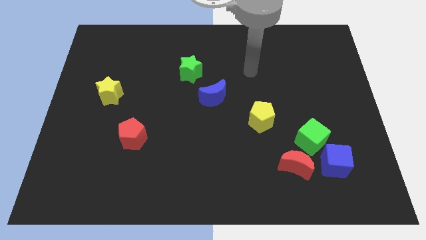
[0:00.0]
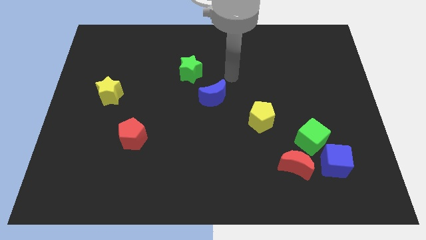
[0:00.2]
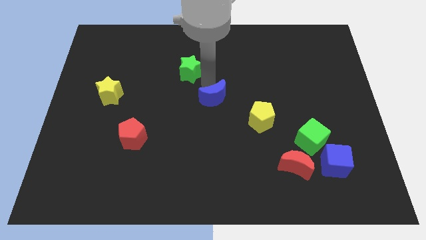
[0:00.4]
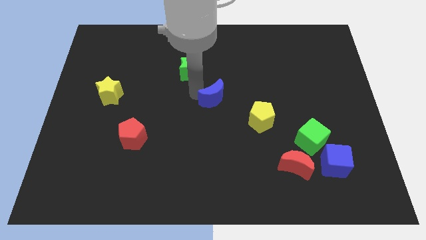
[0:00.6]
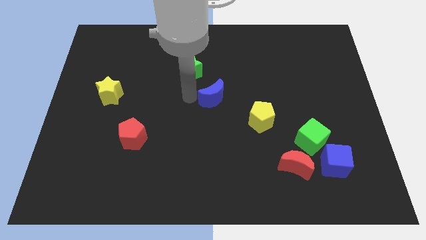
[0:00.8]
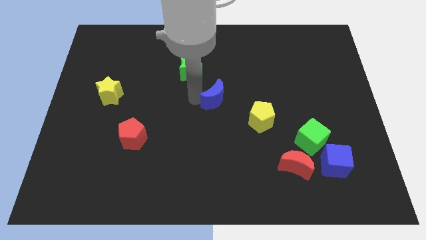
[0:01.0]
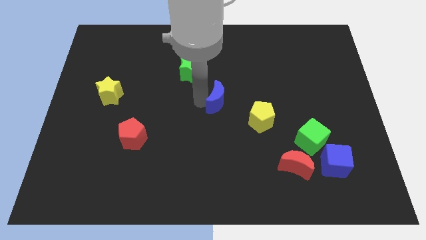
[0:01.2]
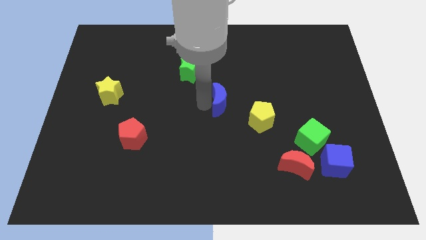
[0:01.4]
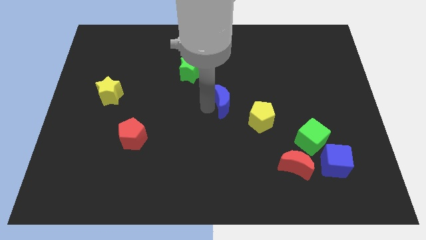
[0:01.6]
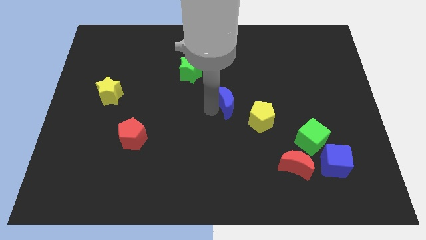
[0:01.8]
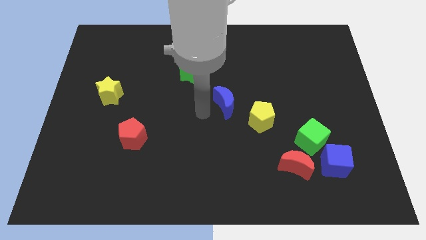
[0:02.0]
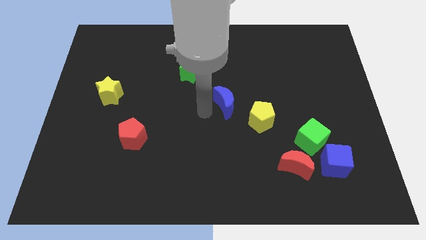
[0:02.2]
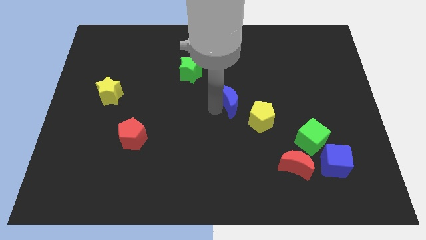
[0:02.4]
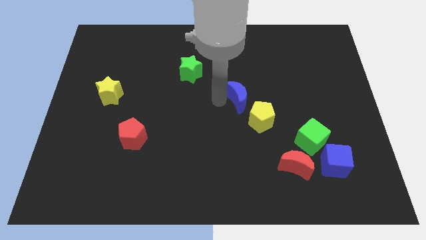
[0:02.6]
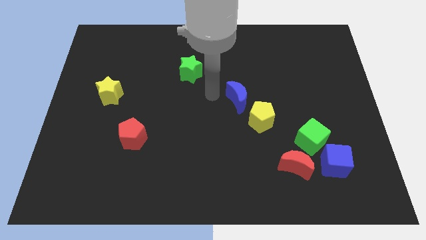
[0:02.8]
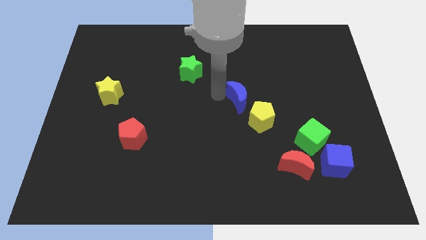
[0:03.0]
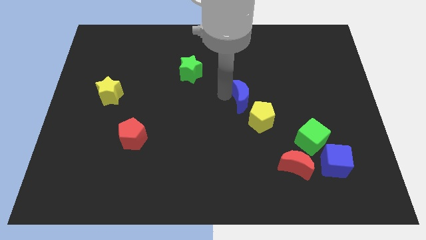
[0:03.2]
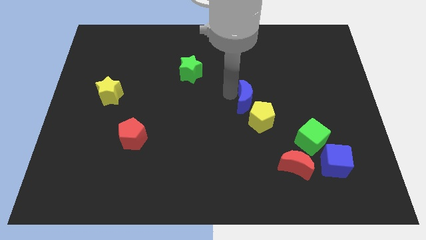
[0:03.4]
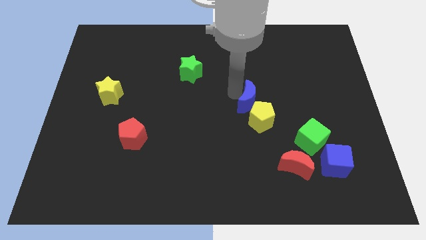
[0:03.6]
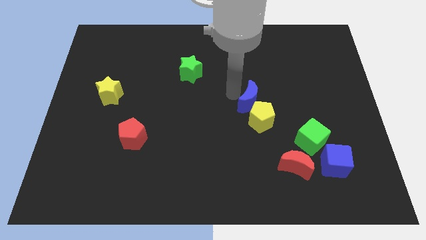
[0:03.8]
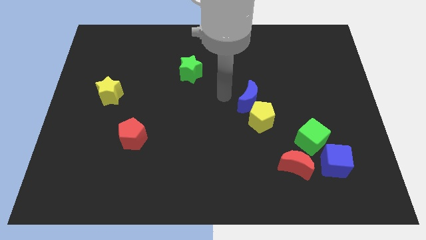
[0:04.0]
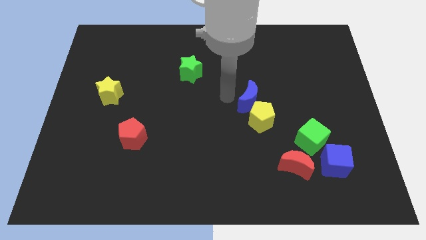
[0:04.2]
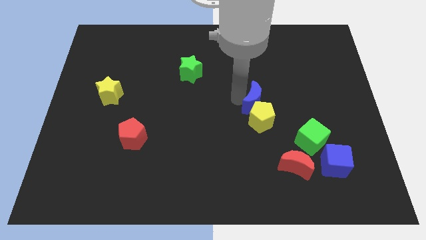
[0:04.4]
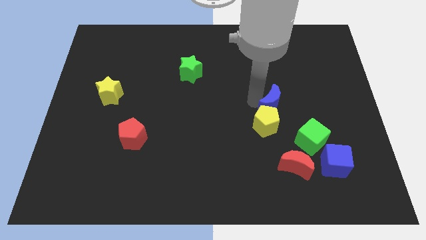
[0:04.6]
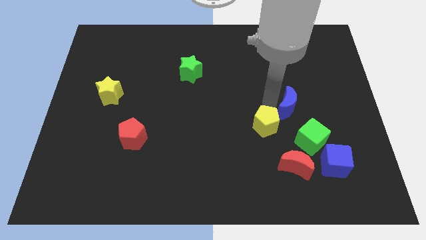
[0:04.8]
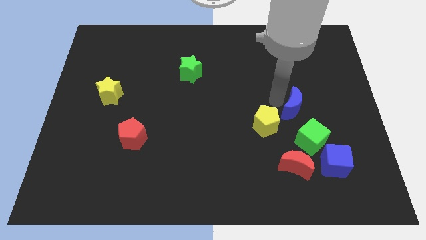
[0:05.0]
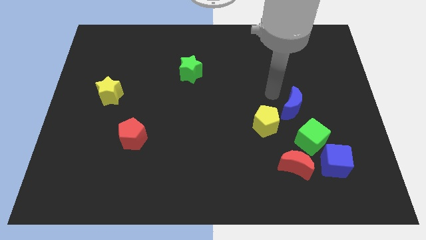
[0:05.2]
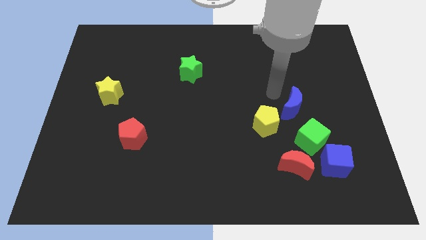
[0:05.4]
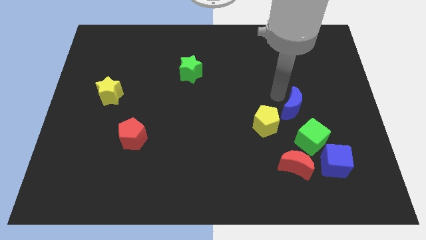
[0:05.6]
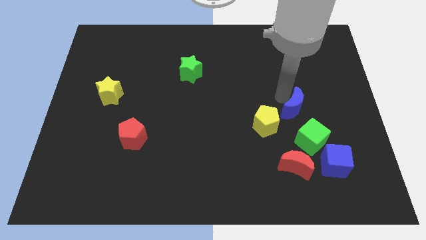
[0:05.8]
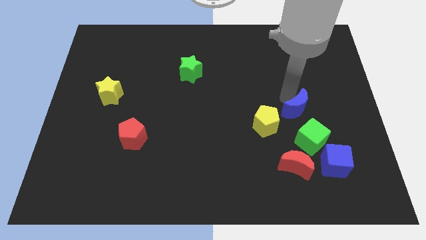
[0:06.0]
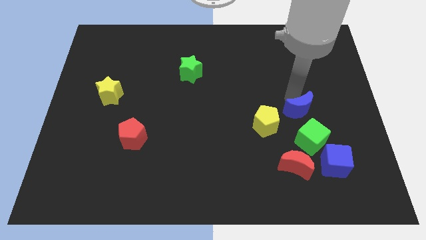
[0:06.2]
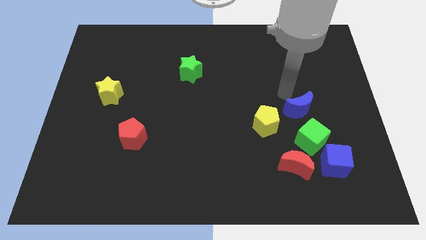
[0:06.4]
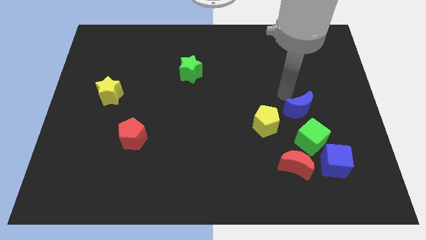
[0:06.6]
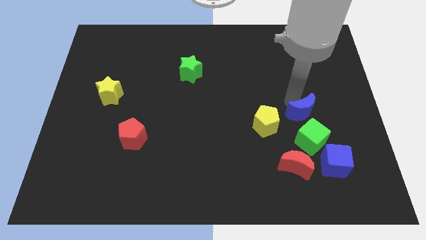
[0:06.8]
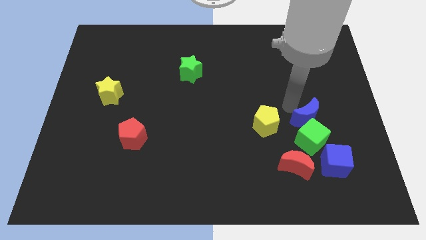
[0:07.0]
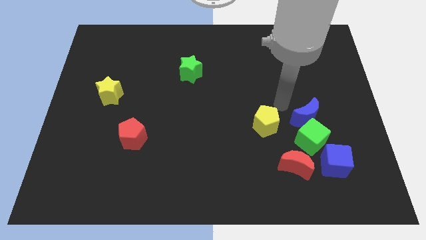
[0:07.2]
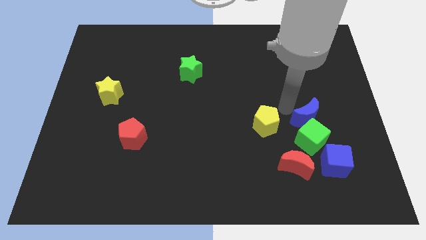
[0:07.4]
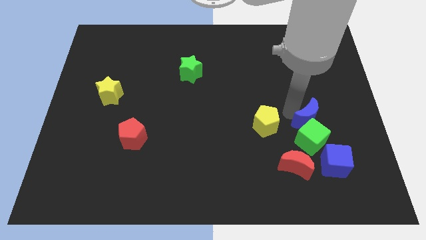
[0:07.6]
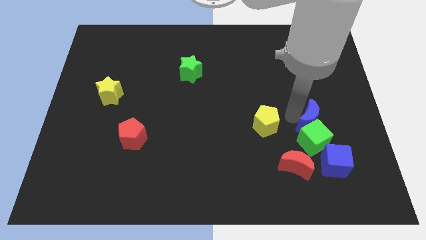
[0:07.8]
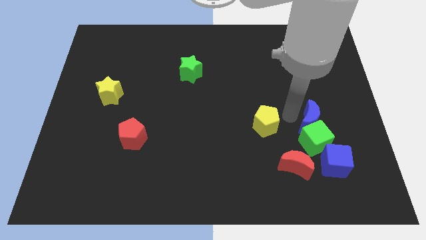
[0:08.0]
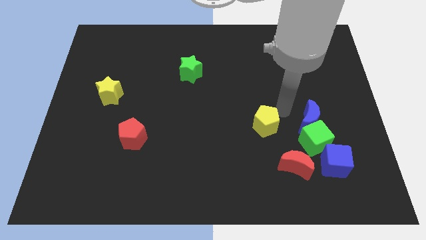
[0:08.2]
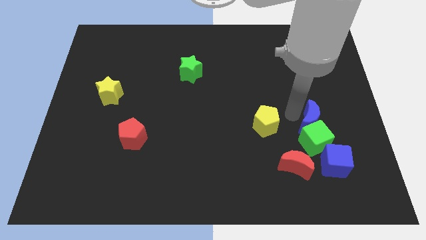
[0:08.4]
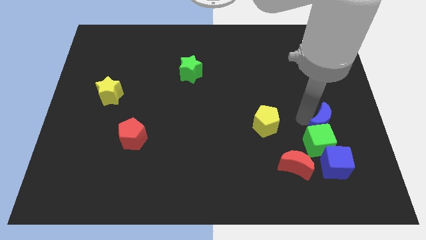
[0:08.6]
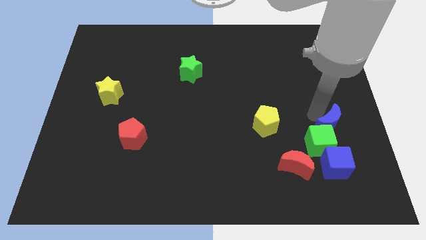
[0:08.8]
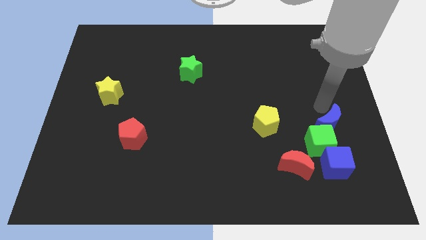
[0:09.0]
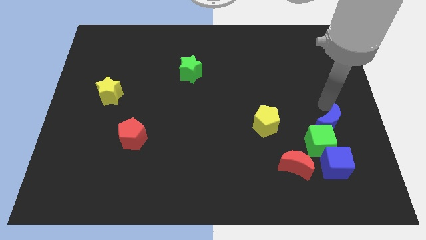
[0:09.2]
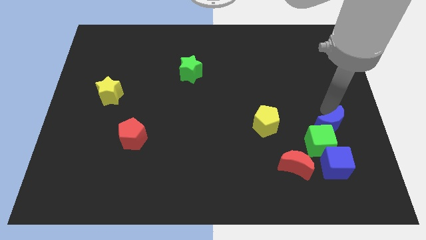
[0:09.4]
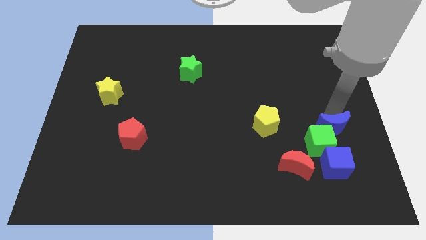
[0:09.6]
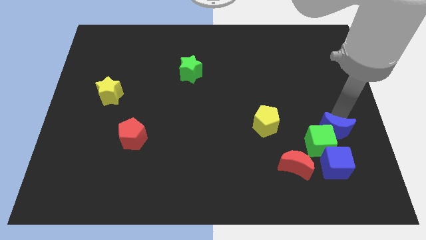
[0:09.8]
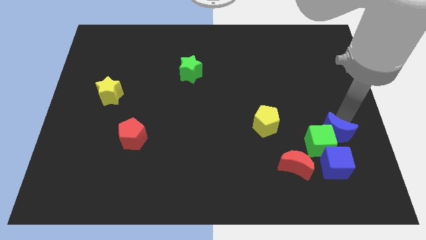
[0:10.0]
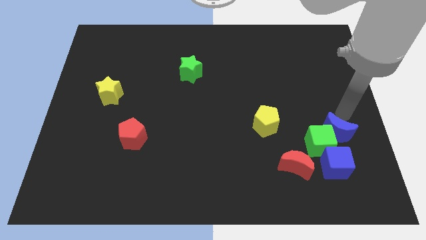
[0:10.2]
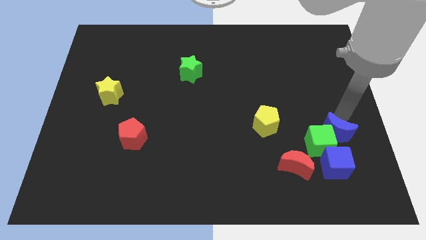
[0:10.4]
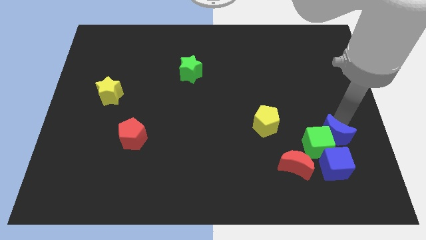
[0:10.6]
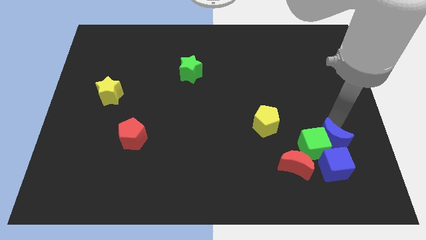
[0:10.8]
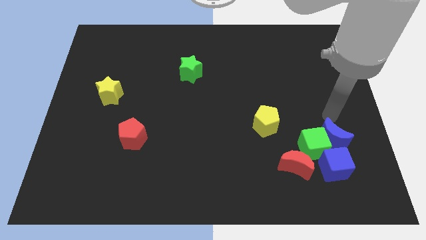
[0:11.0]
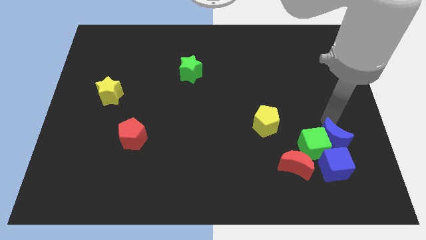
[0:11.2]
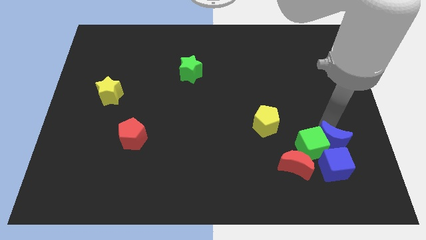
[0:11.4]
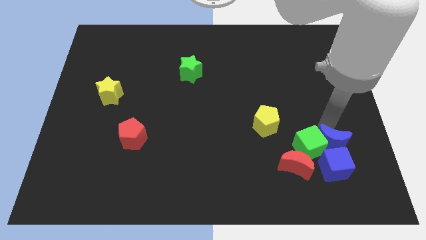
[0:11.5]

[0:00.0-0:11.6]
move the blue moon next to the blue cube

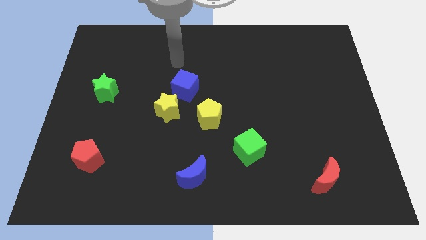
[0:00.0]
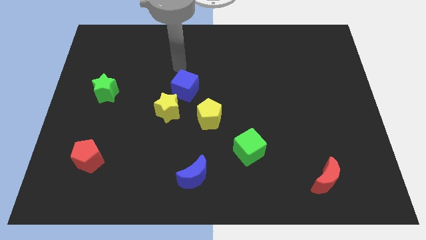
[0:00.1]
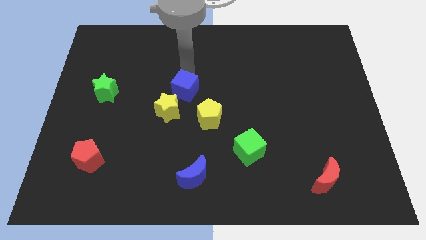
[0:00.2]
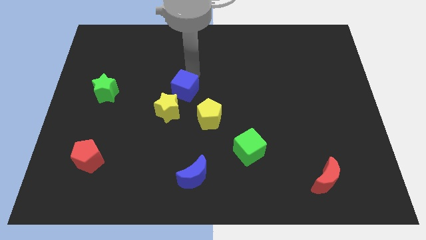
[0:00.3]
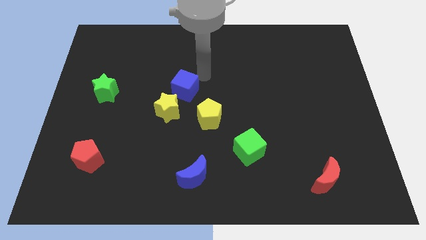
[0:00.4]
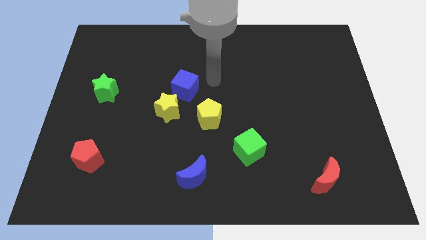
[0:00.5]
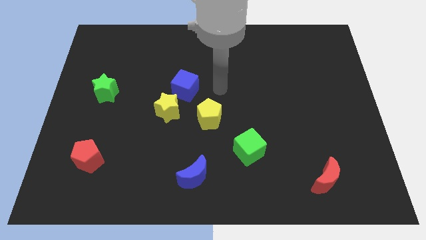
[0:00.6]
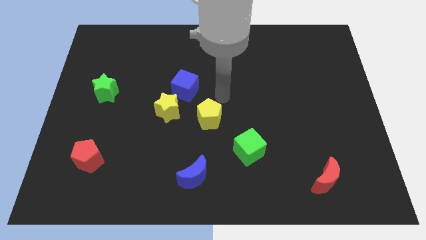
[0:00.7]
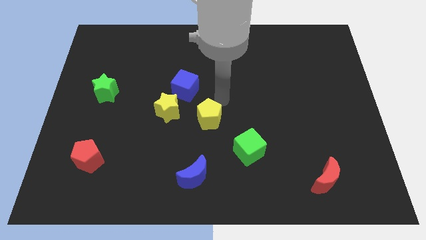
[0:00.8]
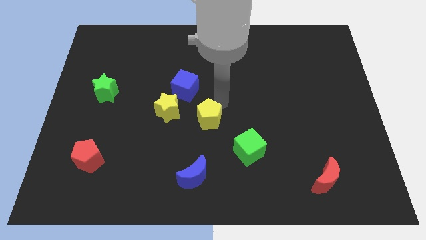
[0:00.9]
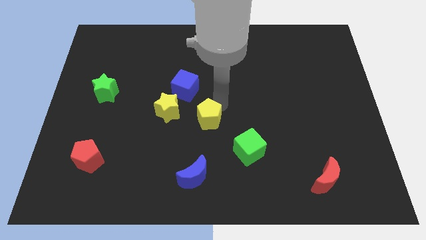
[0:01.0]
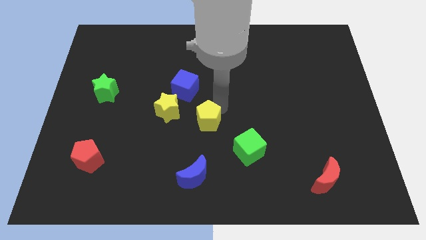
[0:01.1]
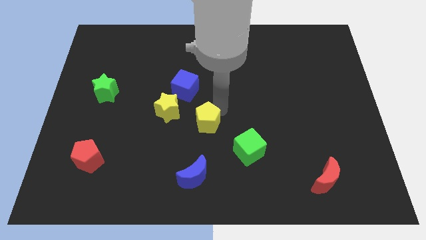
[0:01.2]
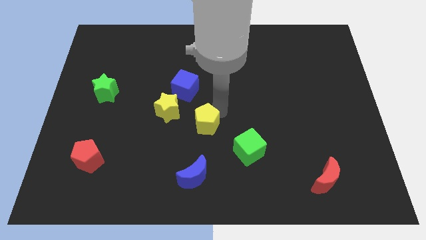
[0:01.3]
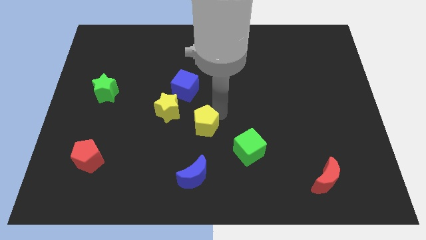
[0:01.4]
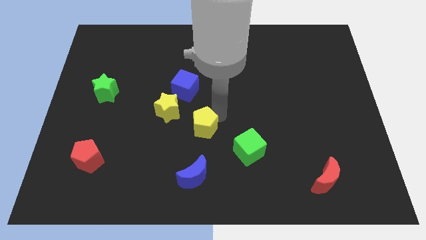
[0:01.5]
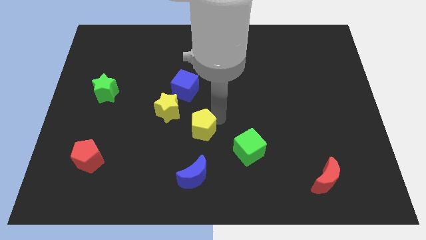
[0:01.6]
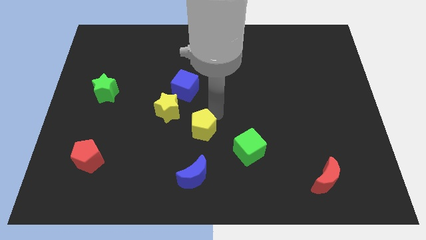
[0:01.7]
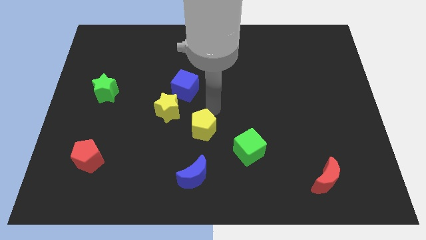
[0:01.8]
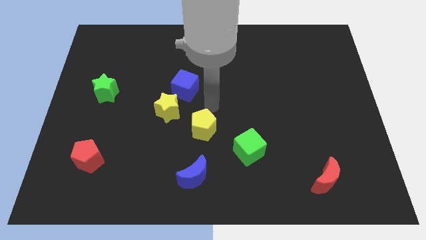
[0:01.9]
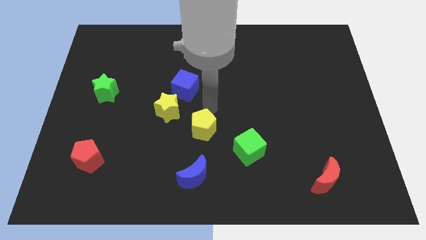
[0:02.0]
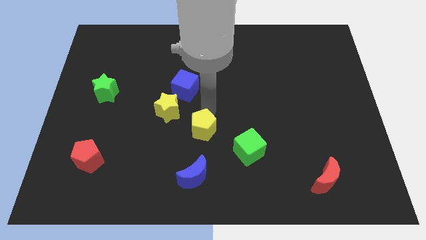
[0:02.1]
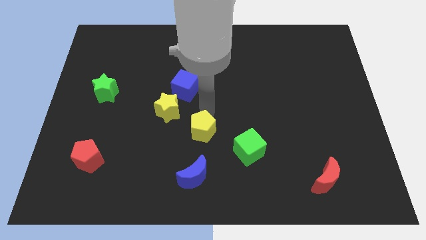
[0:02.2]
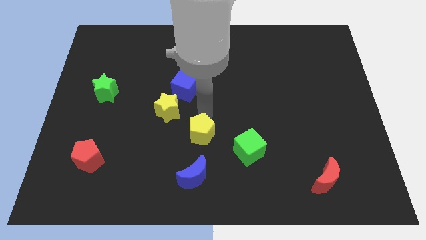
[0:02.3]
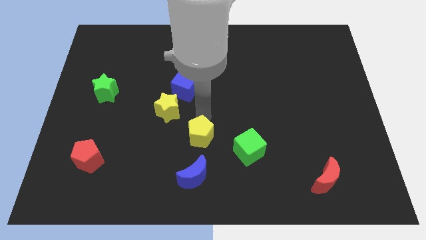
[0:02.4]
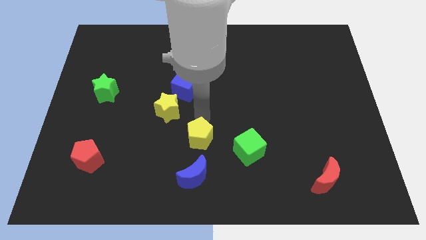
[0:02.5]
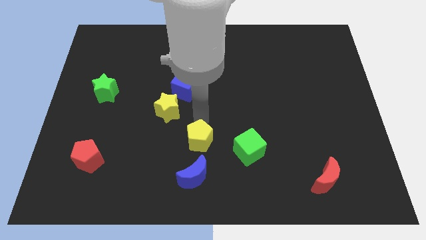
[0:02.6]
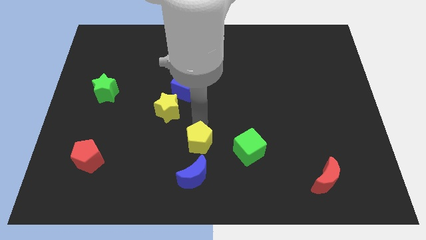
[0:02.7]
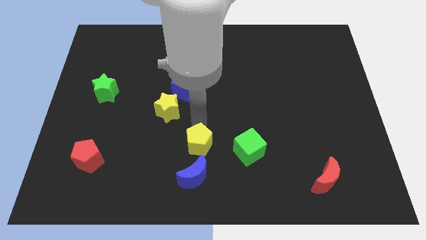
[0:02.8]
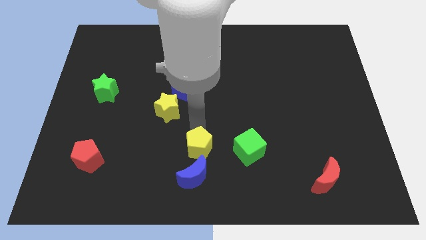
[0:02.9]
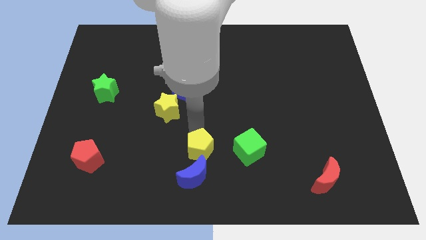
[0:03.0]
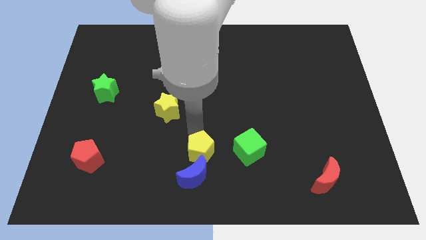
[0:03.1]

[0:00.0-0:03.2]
slide the yellow pentagon towards the blue moon
